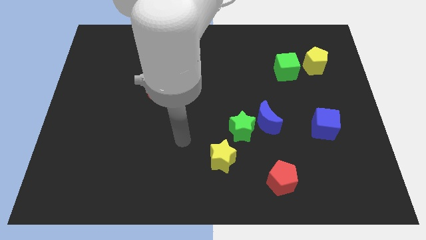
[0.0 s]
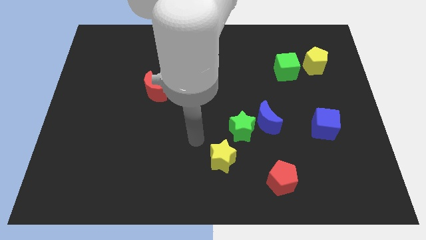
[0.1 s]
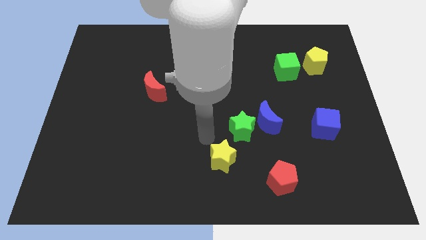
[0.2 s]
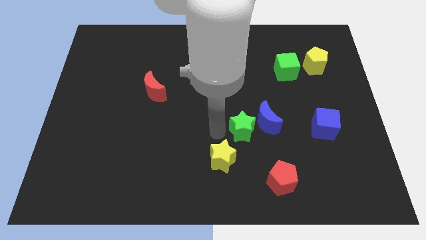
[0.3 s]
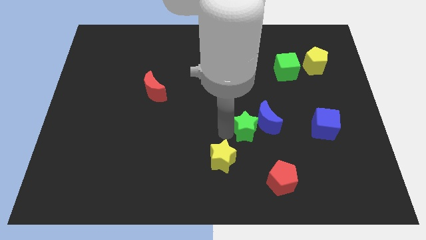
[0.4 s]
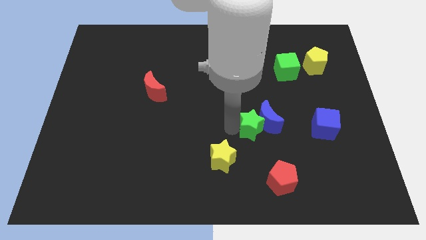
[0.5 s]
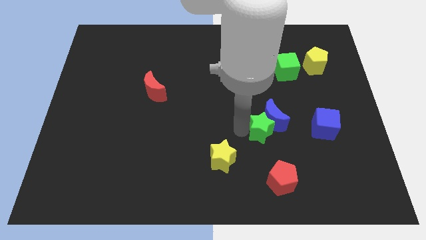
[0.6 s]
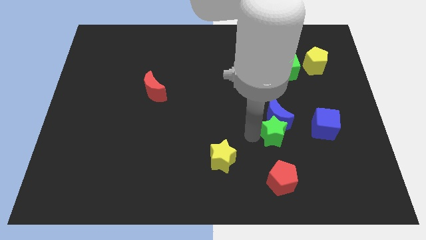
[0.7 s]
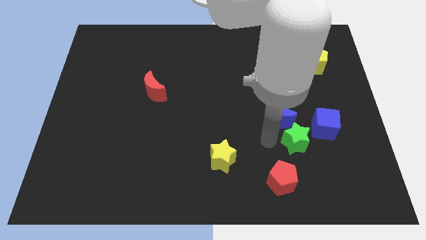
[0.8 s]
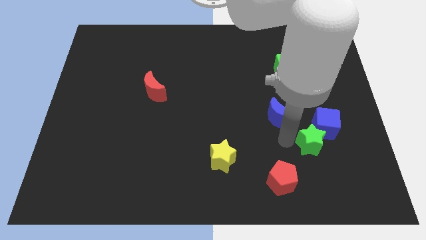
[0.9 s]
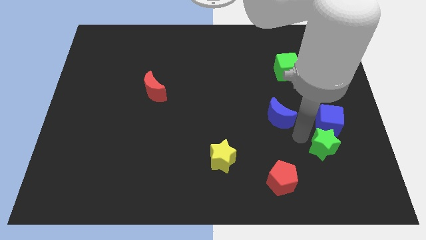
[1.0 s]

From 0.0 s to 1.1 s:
pull the blue moon apart from the green star

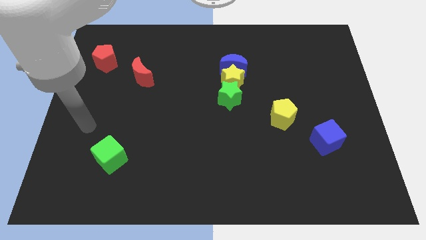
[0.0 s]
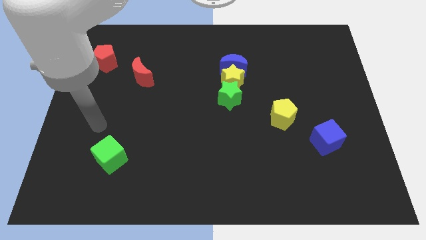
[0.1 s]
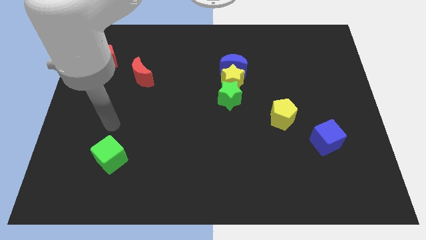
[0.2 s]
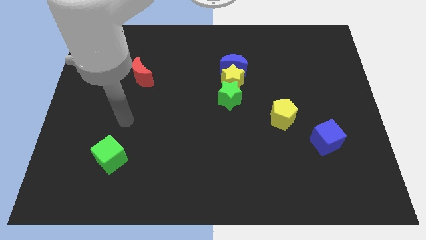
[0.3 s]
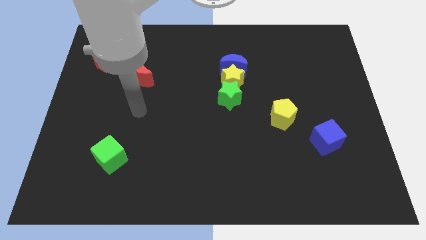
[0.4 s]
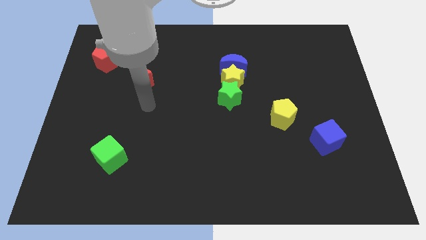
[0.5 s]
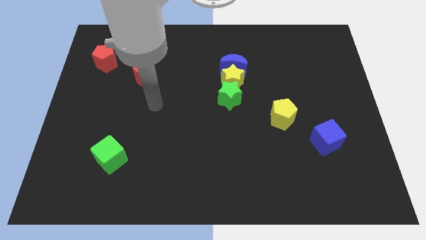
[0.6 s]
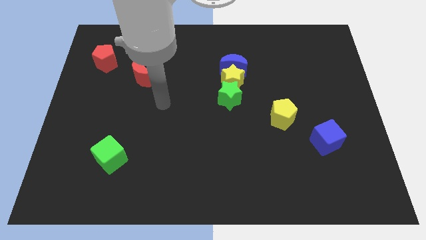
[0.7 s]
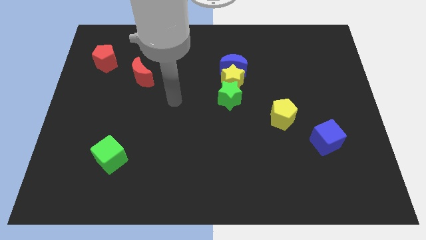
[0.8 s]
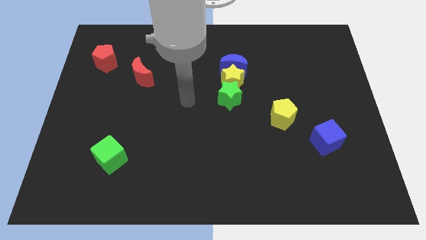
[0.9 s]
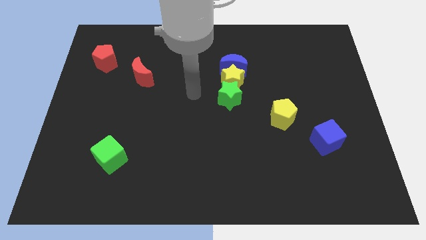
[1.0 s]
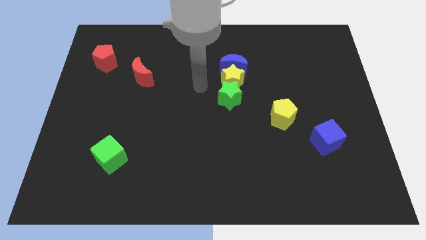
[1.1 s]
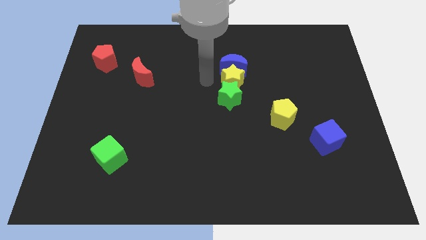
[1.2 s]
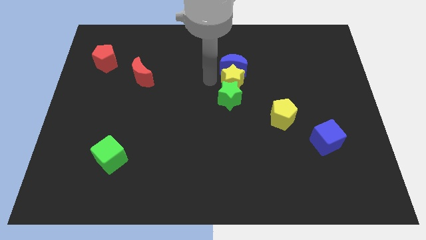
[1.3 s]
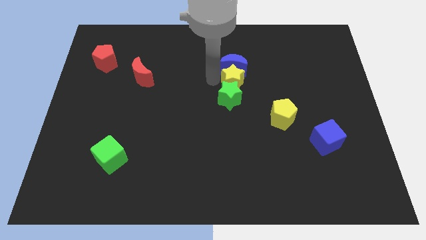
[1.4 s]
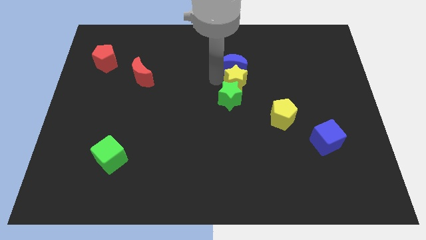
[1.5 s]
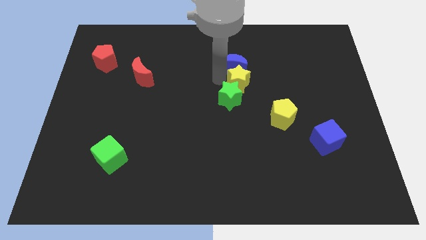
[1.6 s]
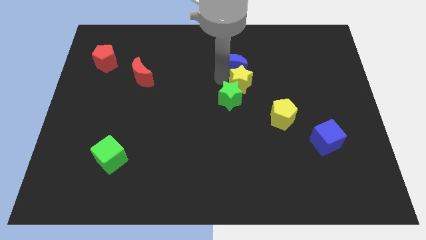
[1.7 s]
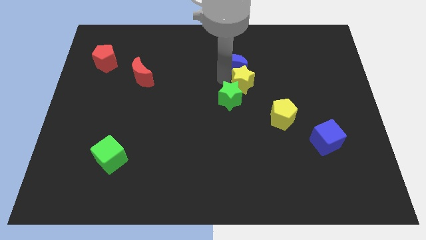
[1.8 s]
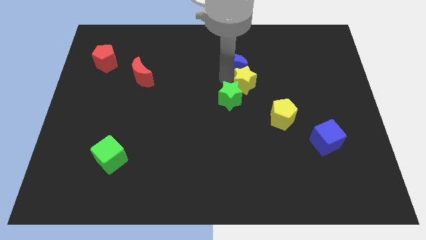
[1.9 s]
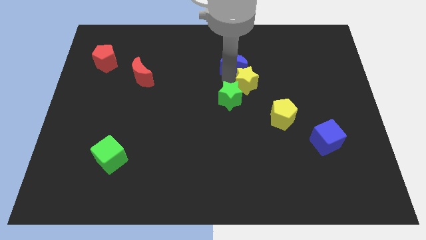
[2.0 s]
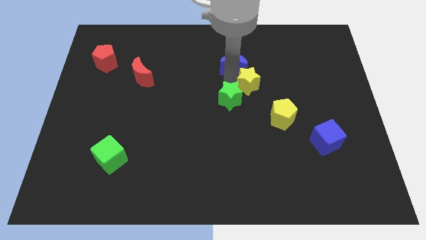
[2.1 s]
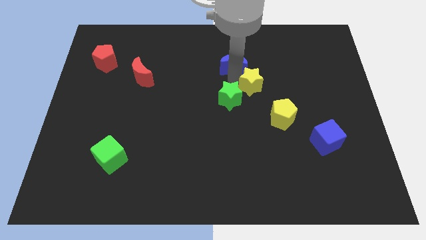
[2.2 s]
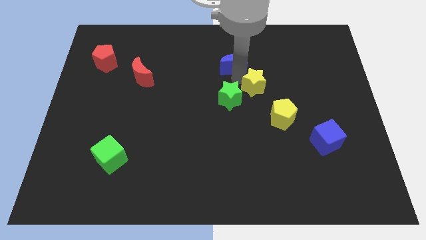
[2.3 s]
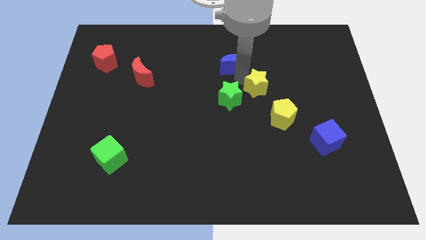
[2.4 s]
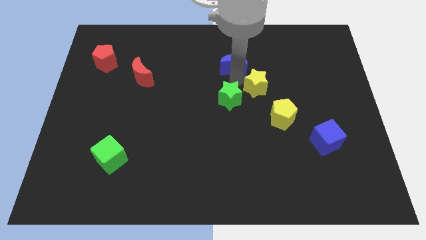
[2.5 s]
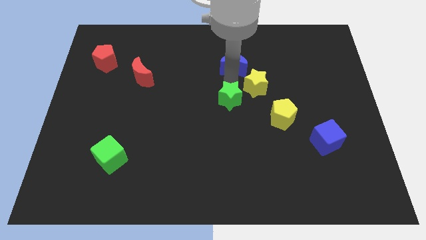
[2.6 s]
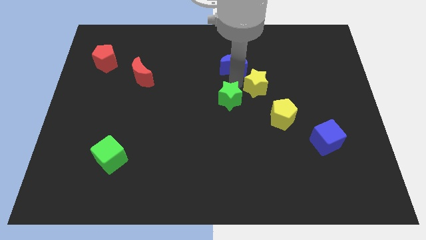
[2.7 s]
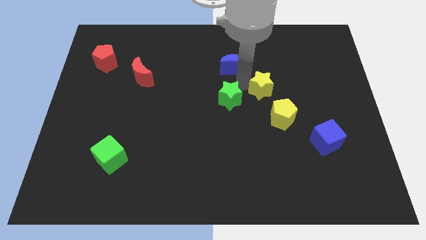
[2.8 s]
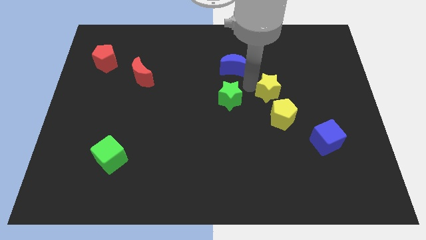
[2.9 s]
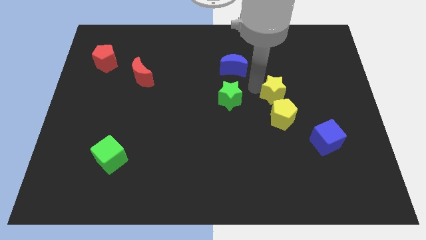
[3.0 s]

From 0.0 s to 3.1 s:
move the yellow star away from the blue moon and green star

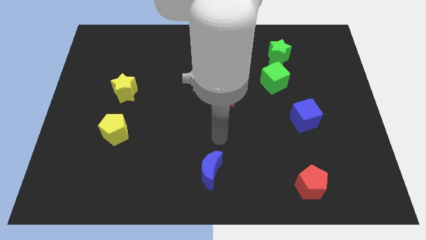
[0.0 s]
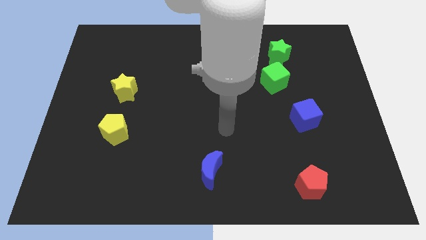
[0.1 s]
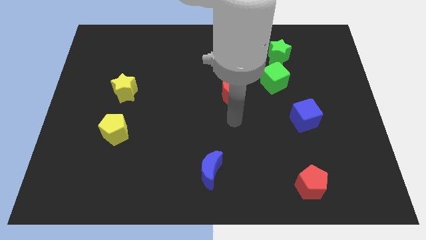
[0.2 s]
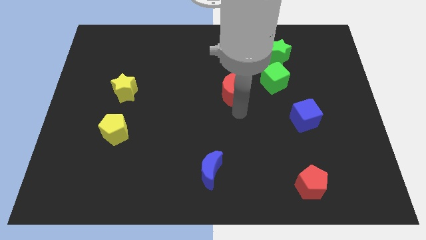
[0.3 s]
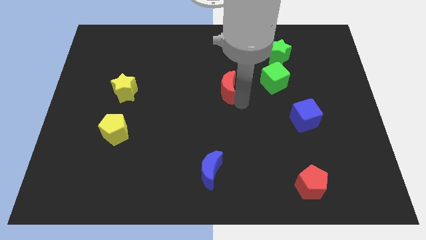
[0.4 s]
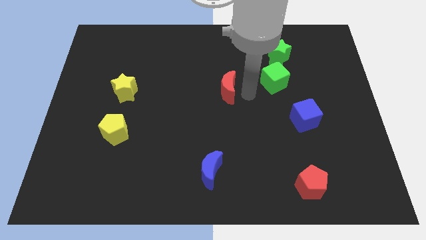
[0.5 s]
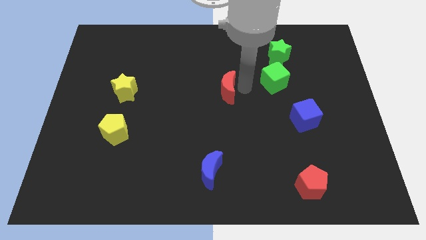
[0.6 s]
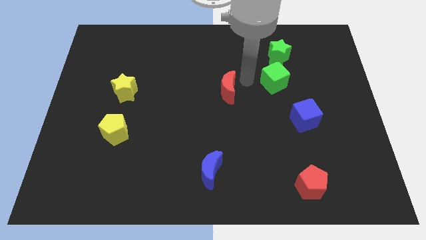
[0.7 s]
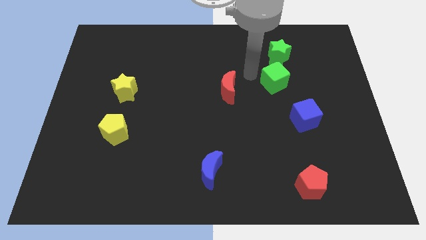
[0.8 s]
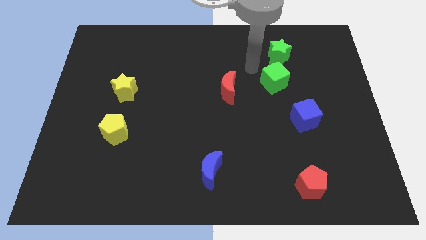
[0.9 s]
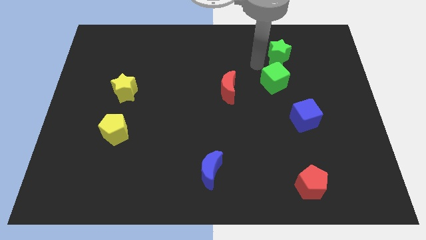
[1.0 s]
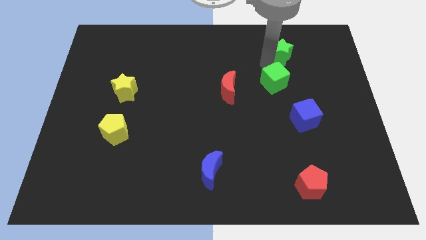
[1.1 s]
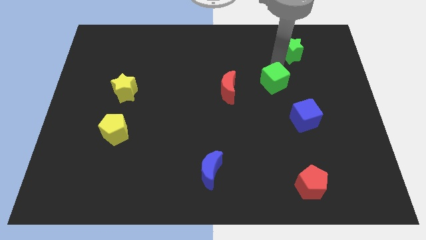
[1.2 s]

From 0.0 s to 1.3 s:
move the green cube away from the green star

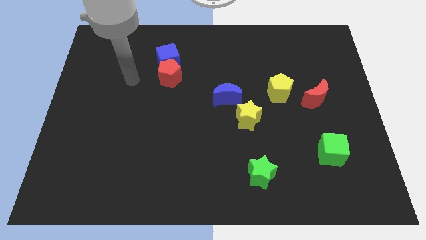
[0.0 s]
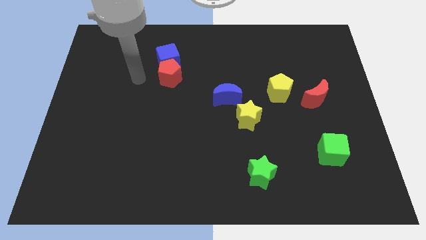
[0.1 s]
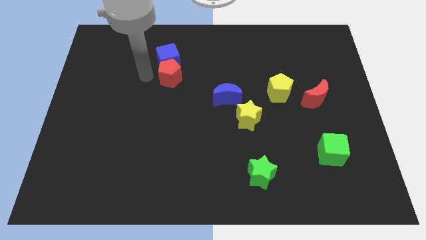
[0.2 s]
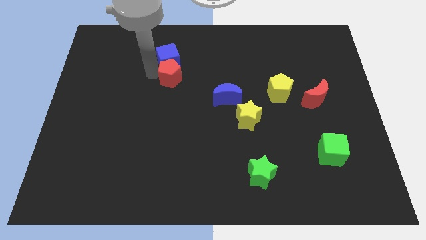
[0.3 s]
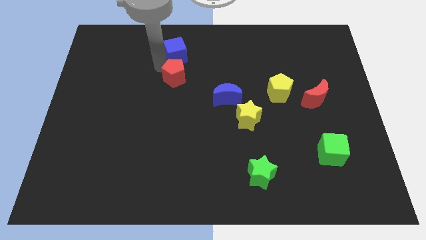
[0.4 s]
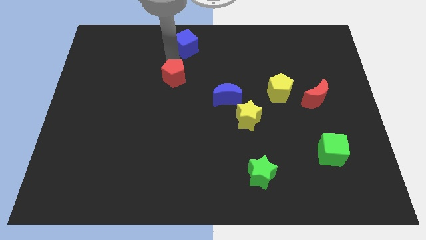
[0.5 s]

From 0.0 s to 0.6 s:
pull the red pentagon apart from the blue cube

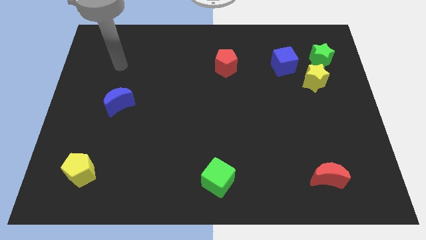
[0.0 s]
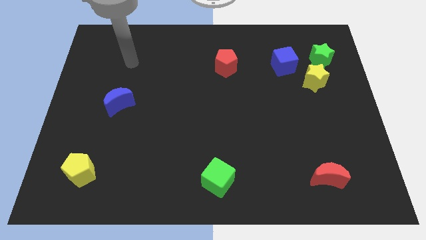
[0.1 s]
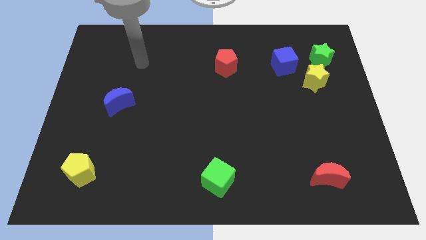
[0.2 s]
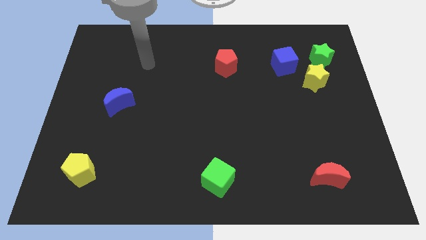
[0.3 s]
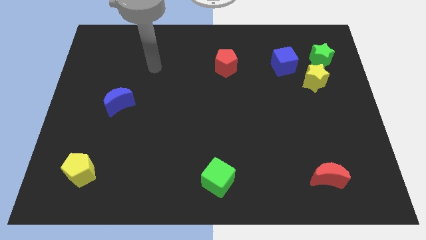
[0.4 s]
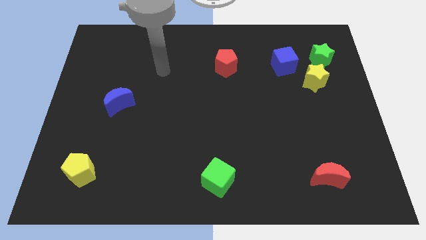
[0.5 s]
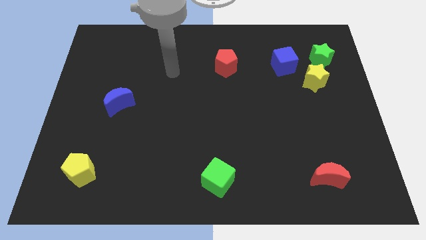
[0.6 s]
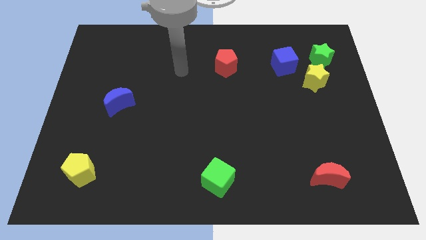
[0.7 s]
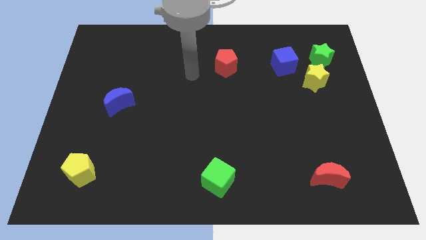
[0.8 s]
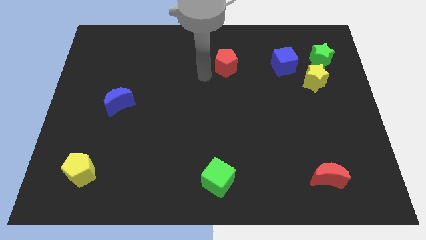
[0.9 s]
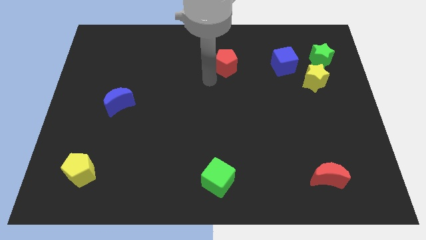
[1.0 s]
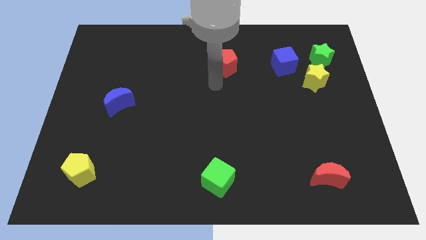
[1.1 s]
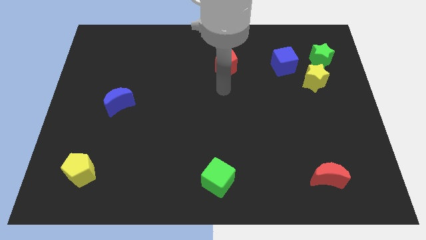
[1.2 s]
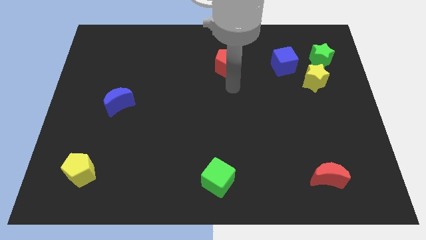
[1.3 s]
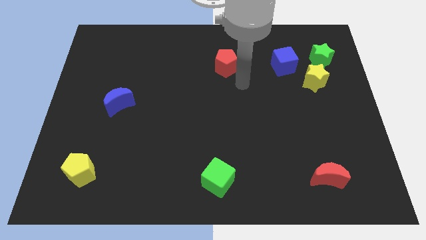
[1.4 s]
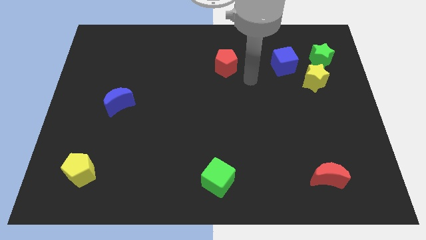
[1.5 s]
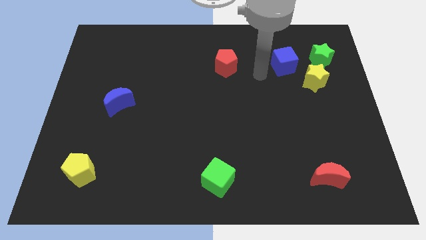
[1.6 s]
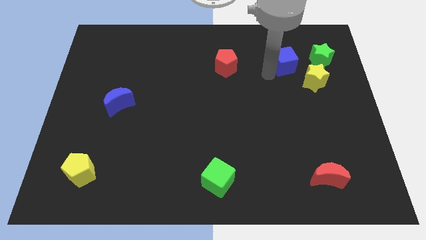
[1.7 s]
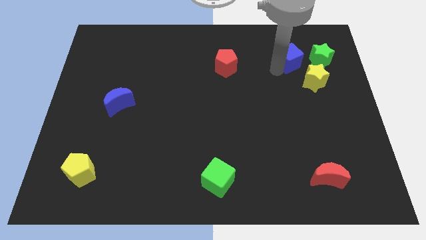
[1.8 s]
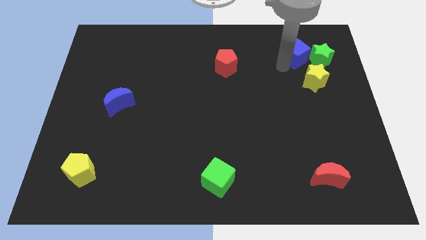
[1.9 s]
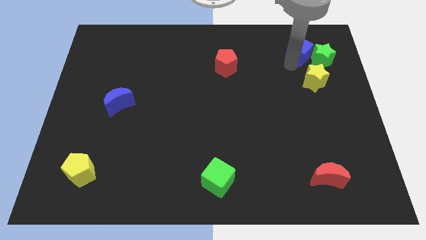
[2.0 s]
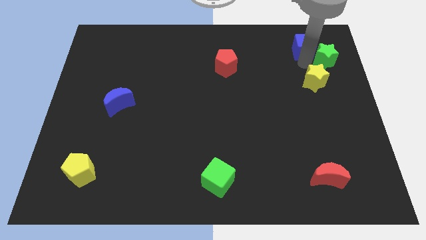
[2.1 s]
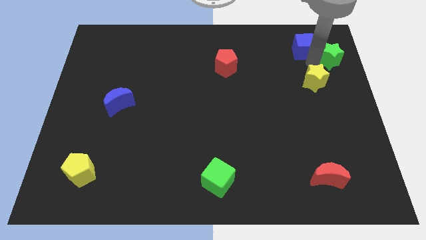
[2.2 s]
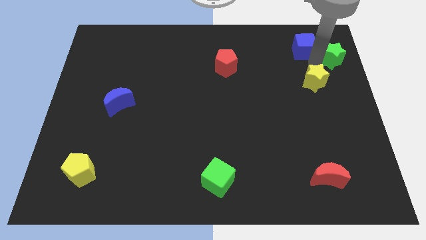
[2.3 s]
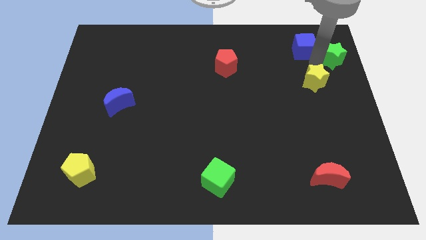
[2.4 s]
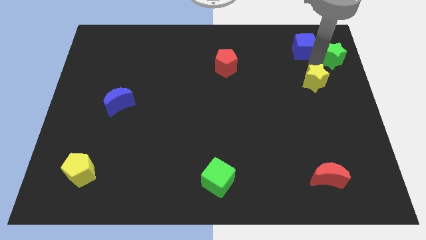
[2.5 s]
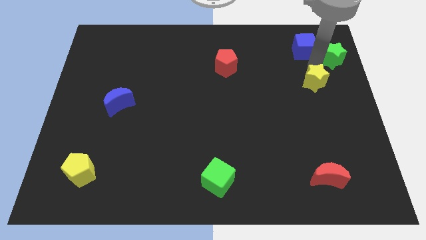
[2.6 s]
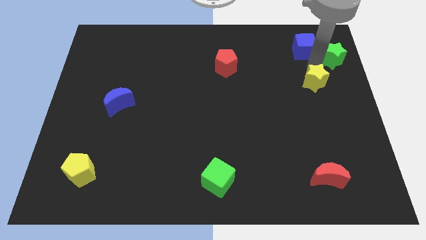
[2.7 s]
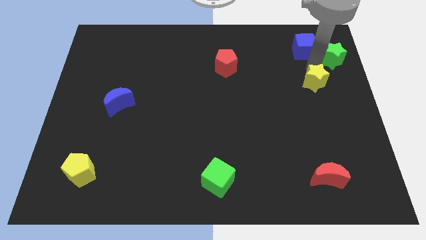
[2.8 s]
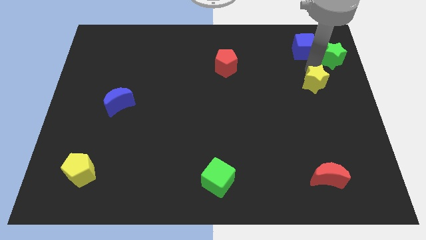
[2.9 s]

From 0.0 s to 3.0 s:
pull the yellow star apart from the green star and blue cube

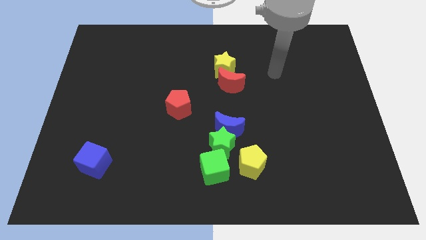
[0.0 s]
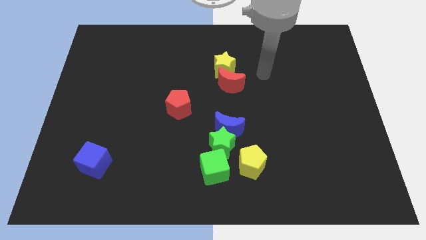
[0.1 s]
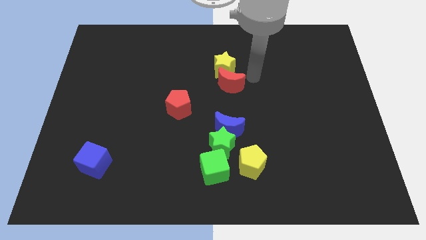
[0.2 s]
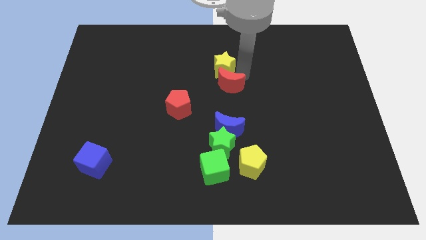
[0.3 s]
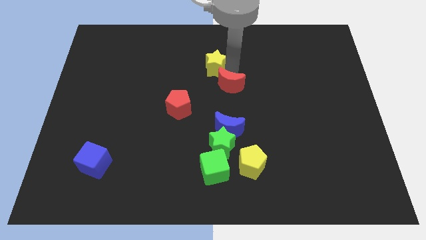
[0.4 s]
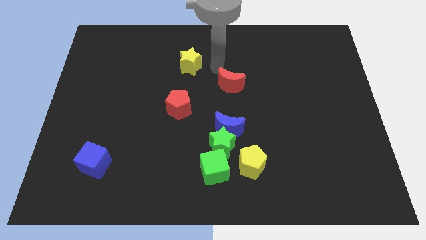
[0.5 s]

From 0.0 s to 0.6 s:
move the red moon away from the yellow star
